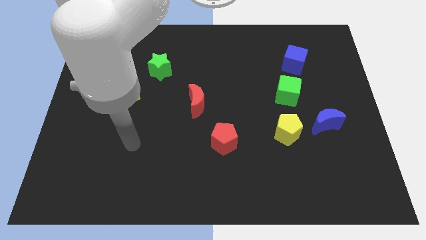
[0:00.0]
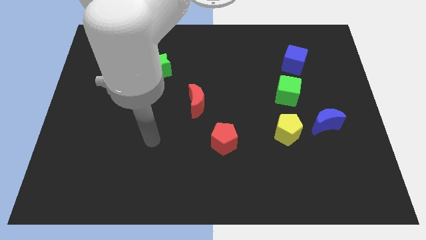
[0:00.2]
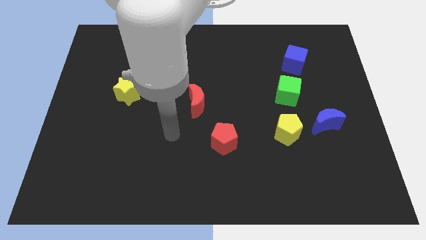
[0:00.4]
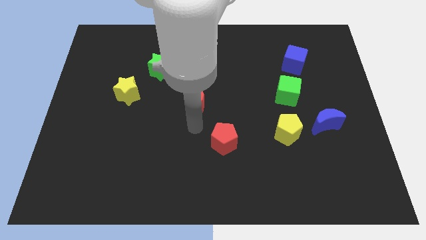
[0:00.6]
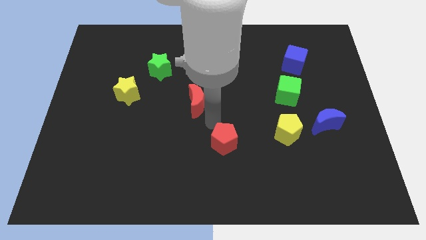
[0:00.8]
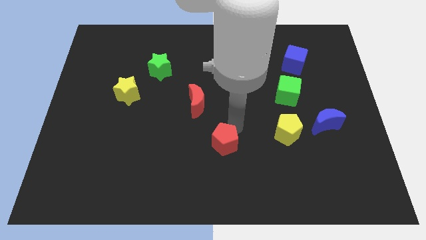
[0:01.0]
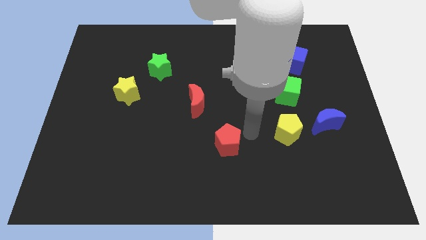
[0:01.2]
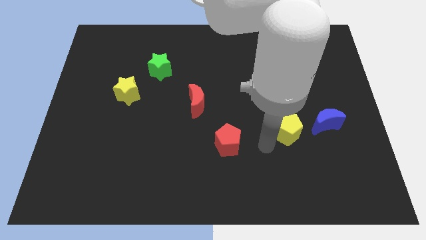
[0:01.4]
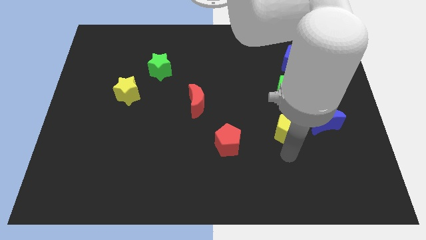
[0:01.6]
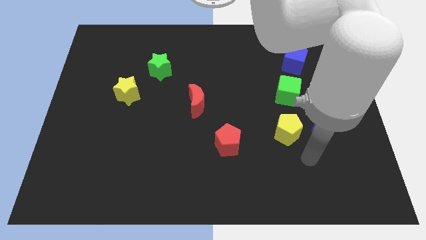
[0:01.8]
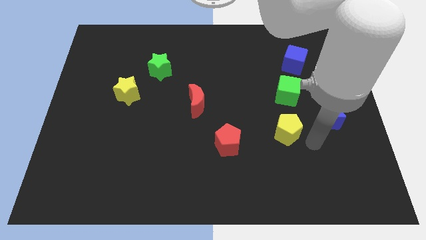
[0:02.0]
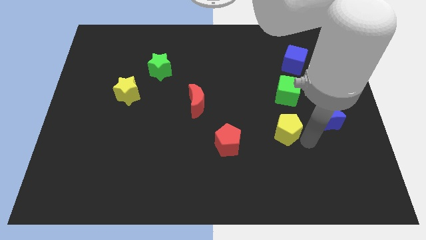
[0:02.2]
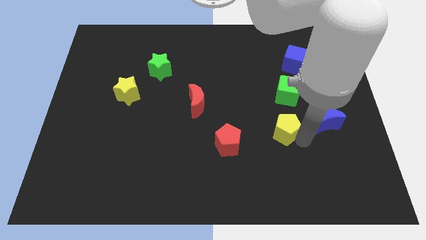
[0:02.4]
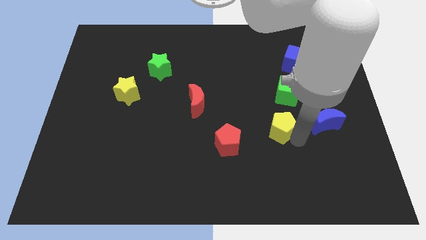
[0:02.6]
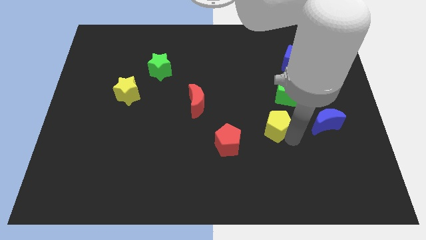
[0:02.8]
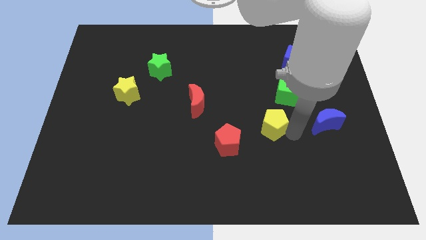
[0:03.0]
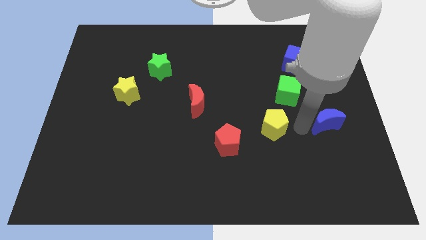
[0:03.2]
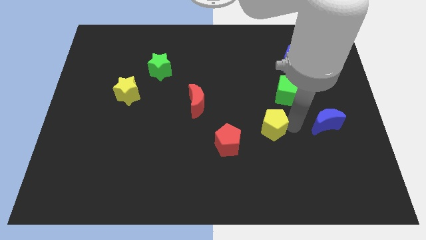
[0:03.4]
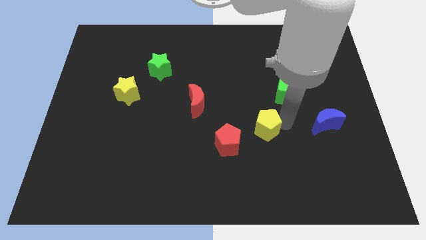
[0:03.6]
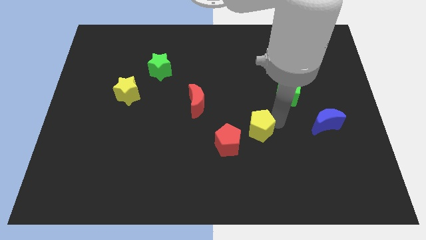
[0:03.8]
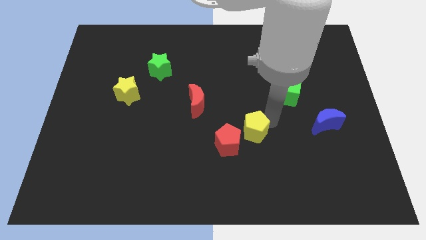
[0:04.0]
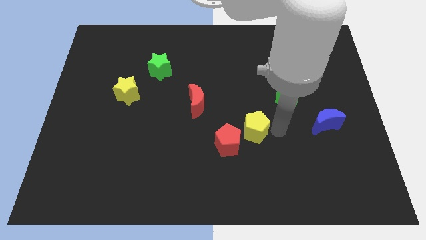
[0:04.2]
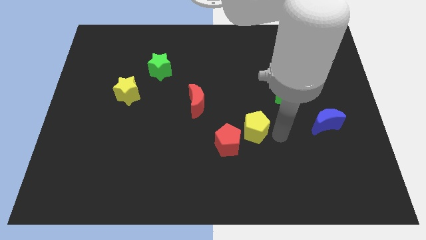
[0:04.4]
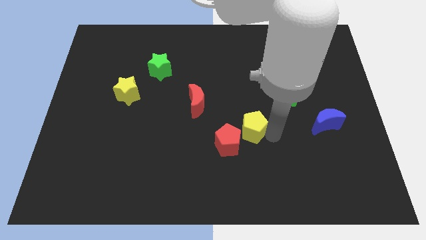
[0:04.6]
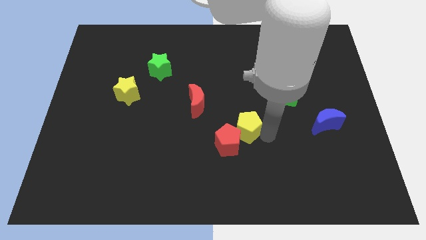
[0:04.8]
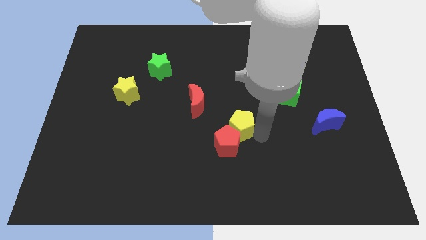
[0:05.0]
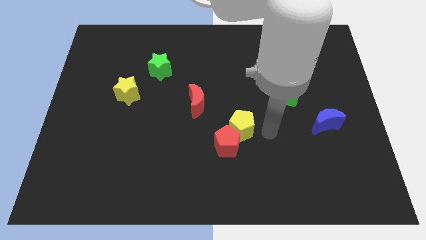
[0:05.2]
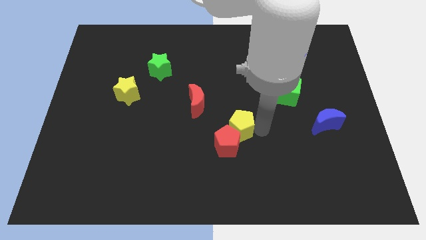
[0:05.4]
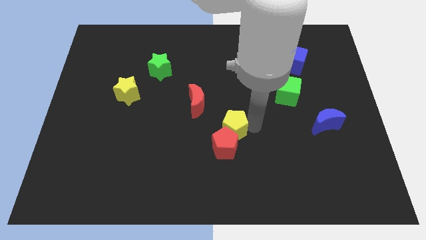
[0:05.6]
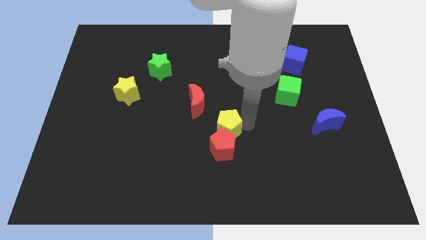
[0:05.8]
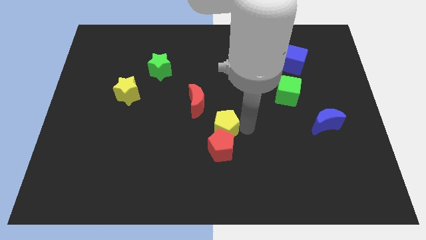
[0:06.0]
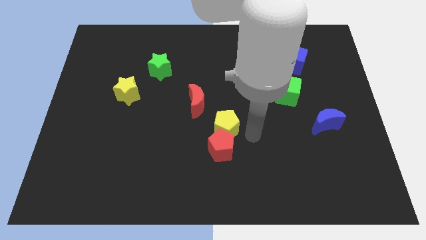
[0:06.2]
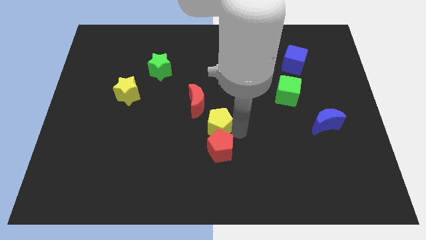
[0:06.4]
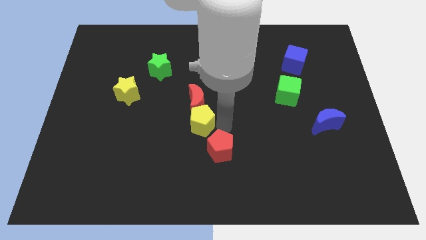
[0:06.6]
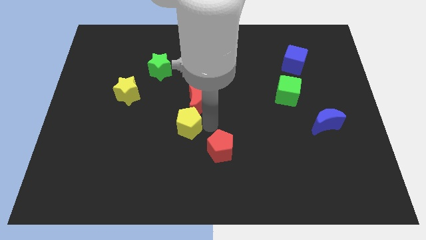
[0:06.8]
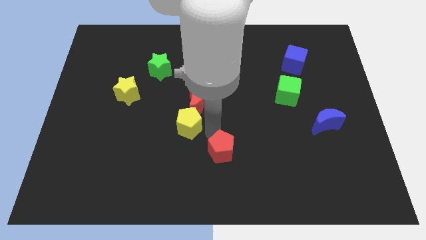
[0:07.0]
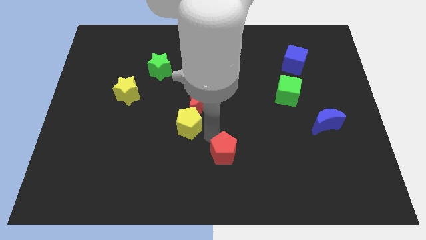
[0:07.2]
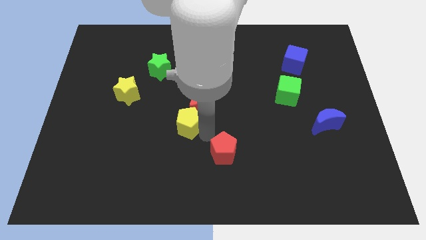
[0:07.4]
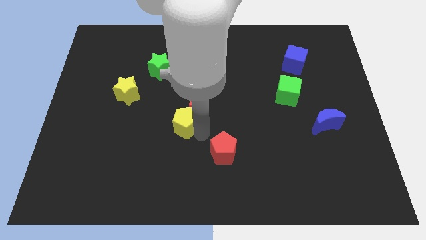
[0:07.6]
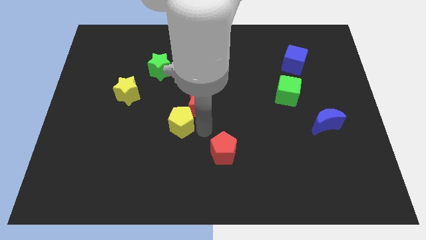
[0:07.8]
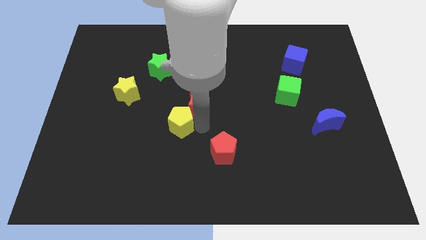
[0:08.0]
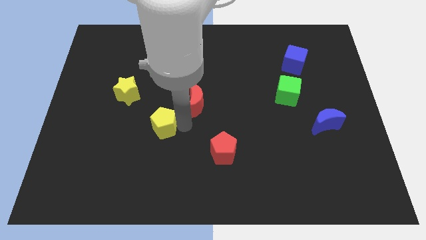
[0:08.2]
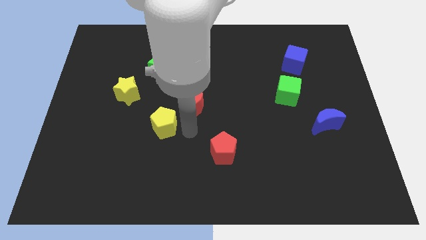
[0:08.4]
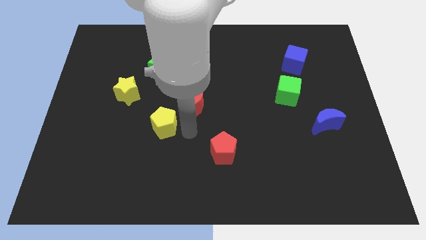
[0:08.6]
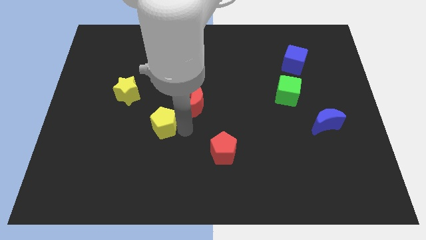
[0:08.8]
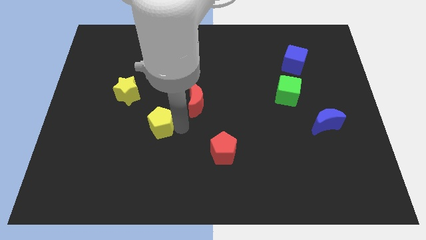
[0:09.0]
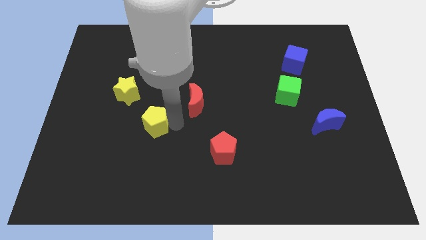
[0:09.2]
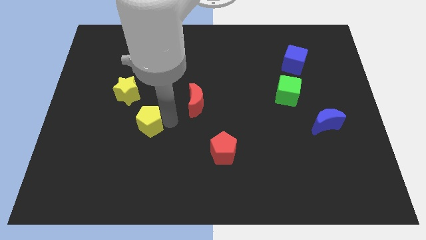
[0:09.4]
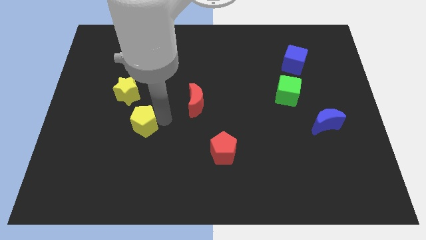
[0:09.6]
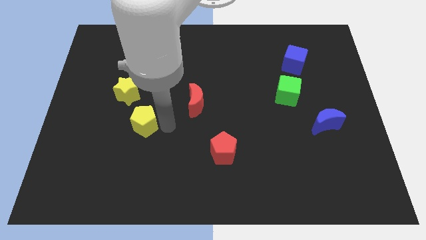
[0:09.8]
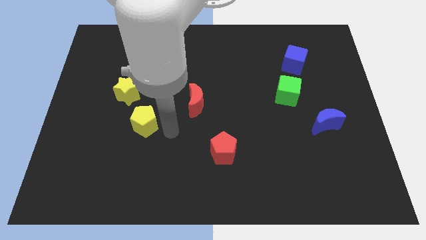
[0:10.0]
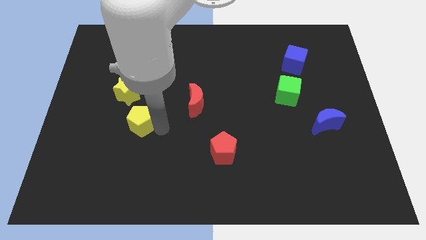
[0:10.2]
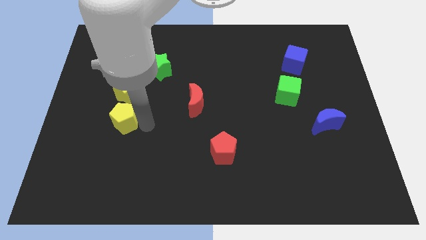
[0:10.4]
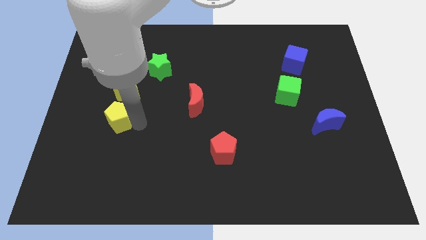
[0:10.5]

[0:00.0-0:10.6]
slide the yellow pentagon to the bottom left of the yellow star

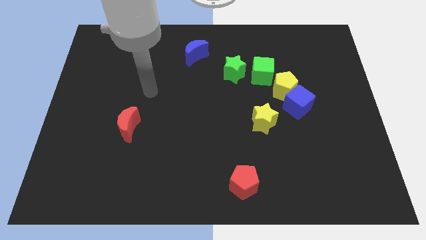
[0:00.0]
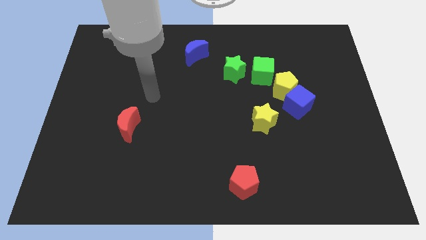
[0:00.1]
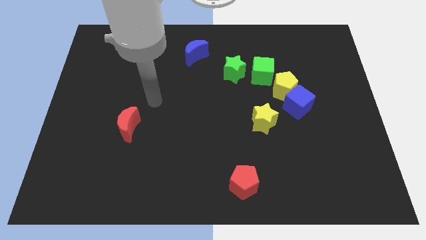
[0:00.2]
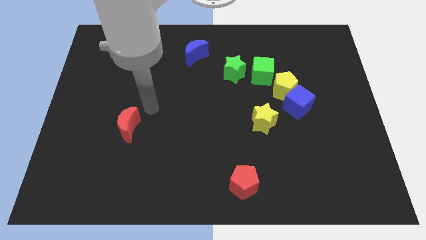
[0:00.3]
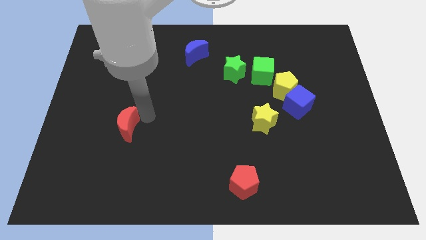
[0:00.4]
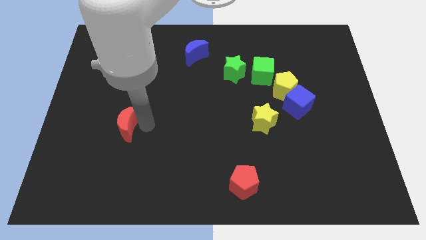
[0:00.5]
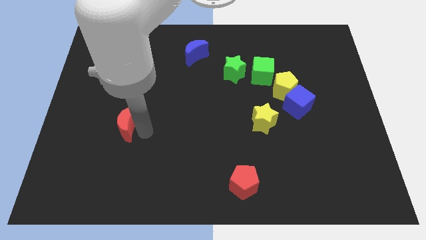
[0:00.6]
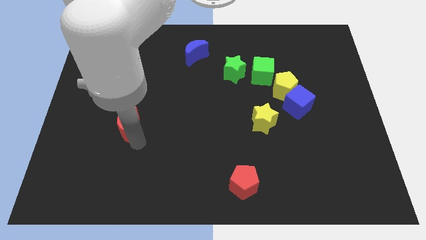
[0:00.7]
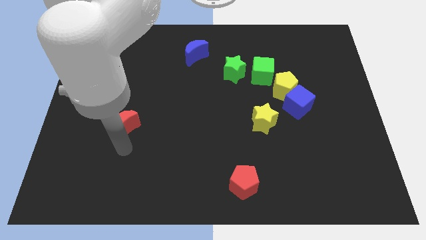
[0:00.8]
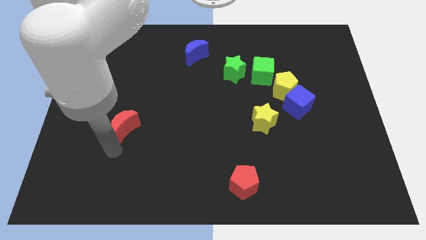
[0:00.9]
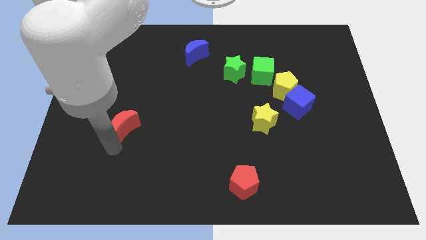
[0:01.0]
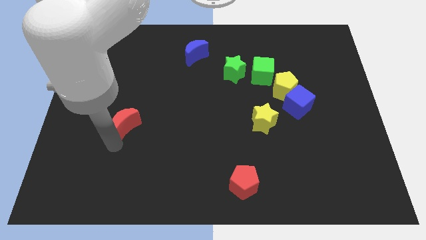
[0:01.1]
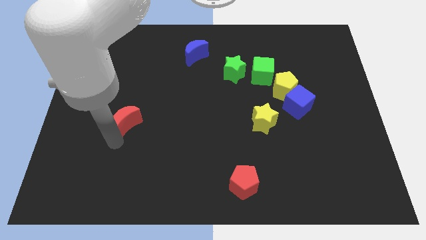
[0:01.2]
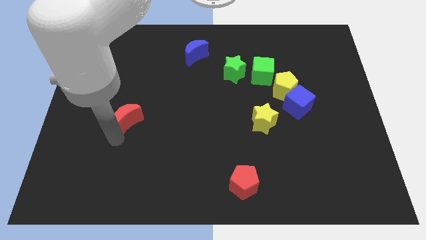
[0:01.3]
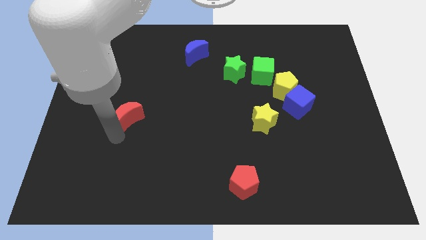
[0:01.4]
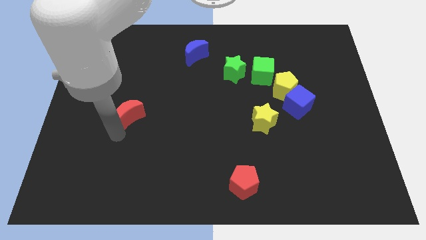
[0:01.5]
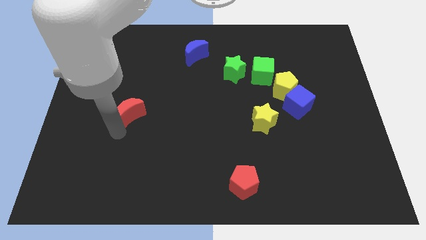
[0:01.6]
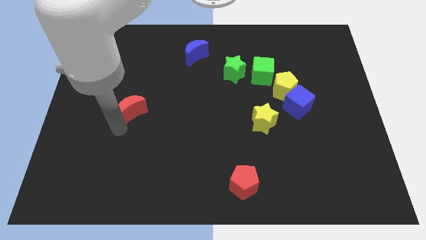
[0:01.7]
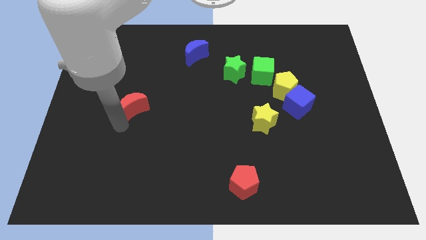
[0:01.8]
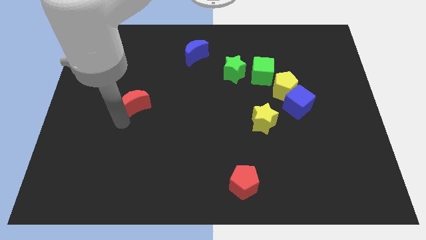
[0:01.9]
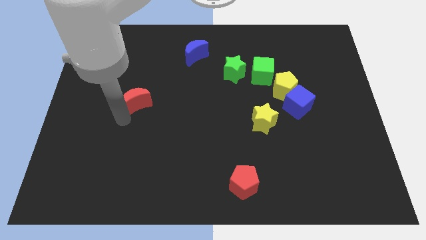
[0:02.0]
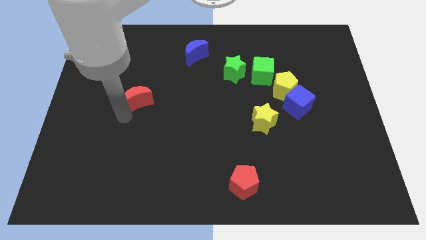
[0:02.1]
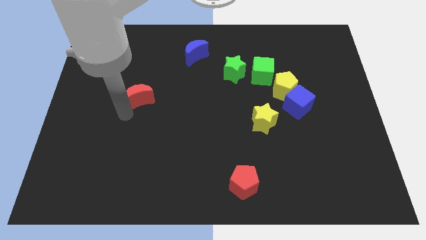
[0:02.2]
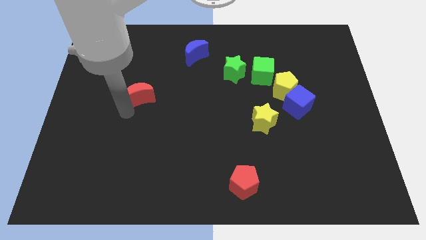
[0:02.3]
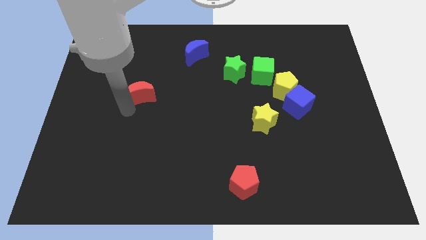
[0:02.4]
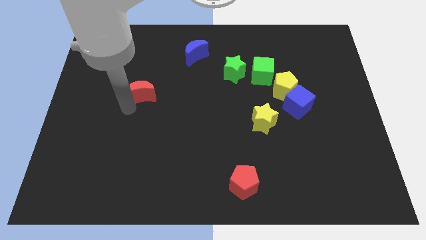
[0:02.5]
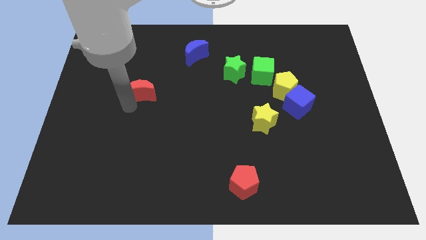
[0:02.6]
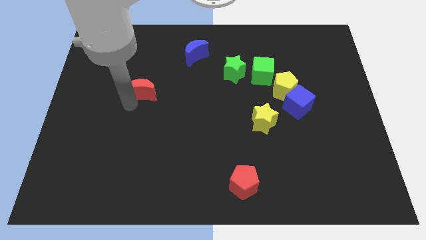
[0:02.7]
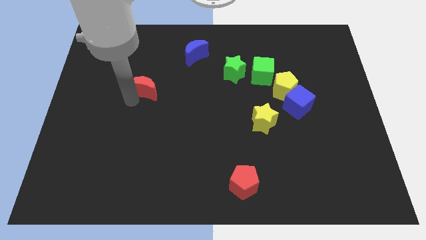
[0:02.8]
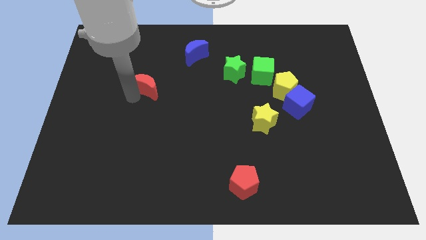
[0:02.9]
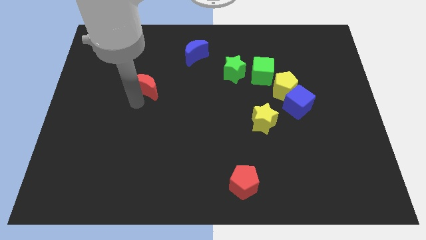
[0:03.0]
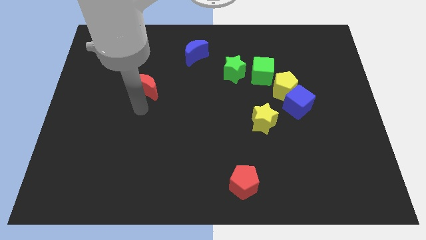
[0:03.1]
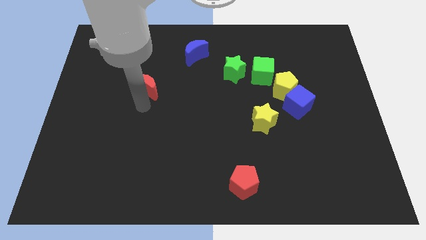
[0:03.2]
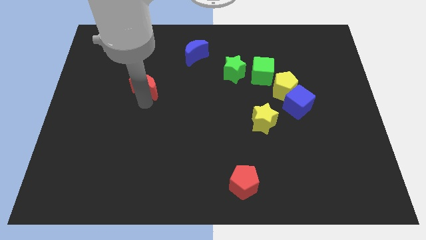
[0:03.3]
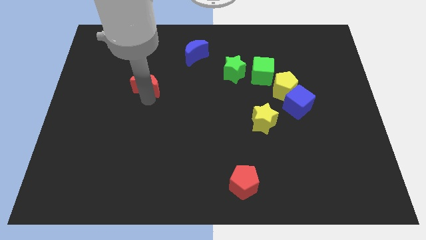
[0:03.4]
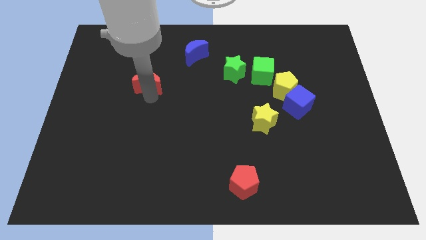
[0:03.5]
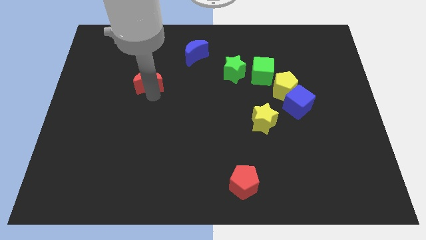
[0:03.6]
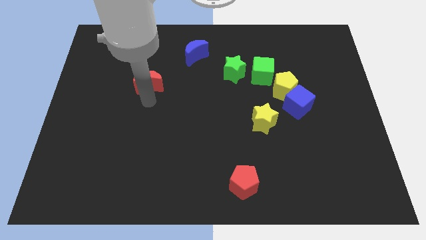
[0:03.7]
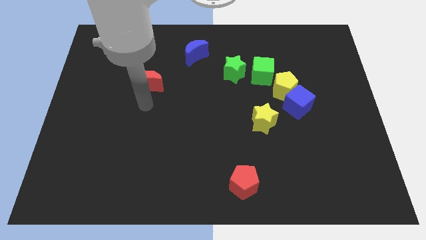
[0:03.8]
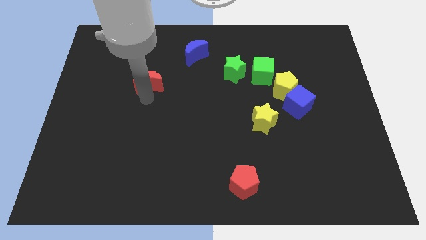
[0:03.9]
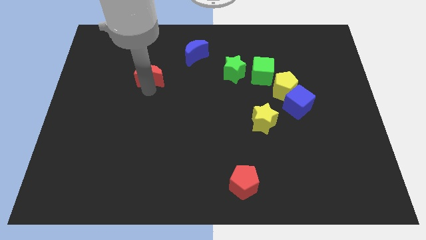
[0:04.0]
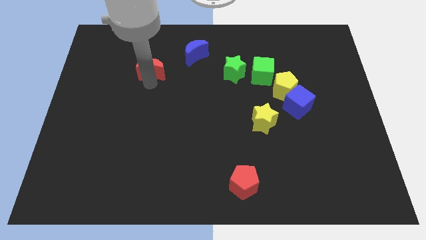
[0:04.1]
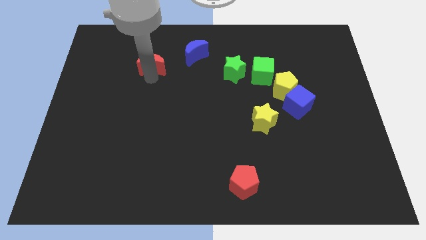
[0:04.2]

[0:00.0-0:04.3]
move the red moon just left of the blue moon
